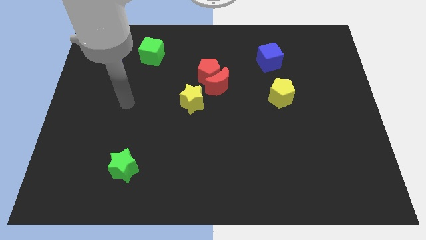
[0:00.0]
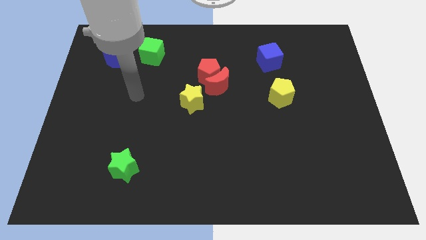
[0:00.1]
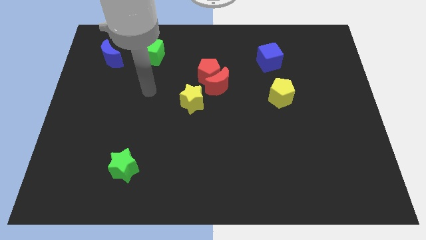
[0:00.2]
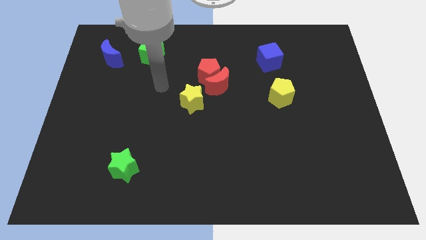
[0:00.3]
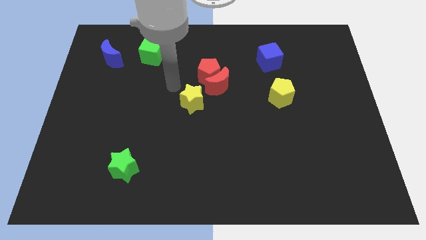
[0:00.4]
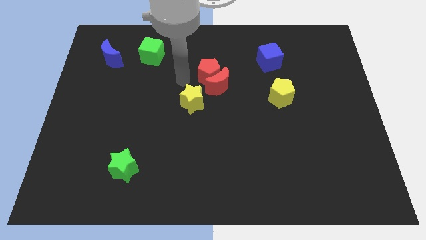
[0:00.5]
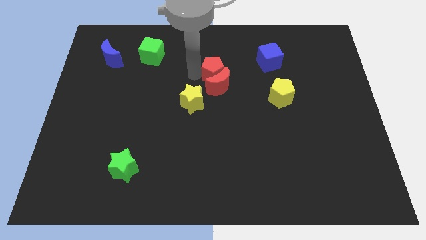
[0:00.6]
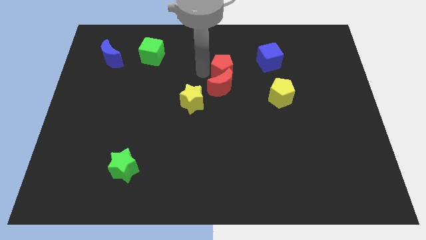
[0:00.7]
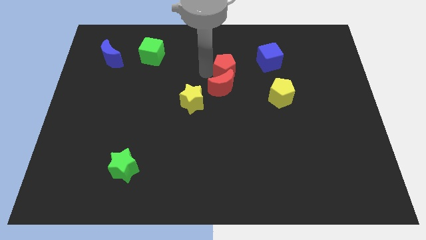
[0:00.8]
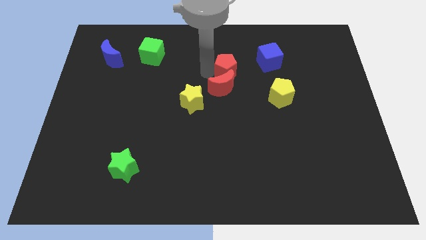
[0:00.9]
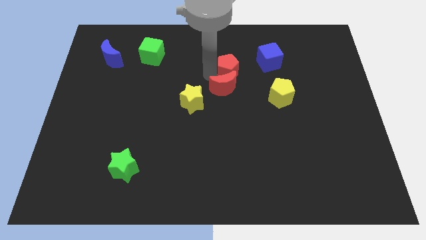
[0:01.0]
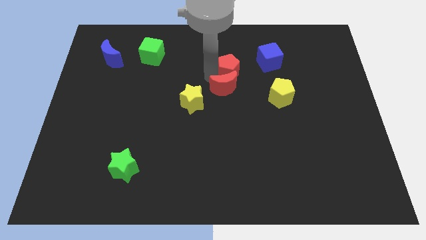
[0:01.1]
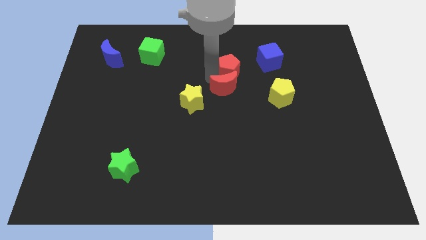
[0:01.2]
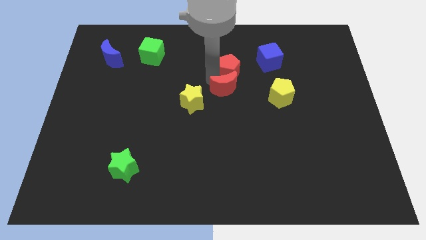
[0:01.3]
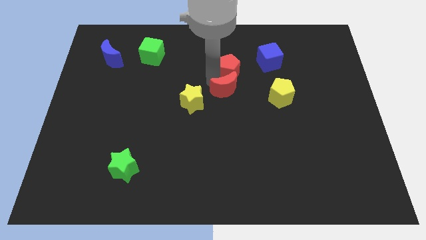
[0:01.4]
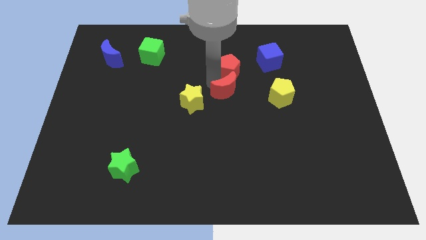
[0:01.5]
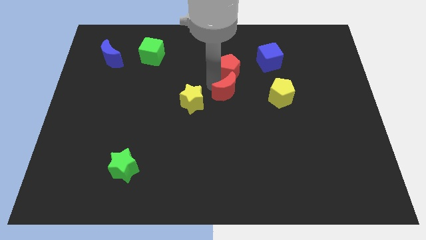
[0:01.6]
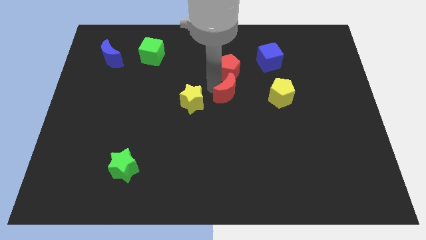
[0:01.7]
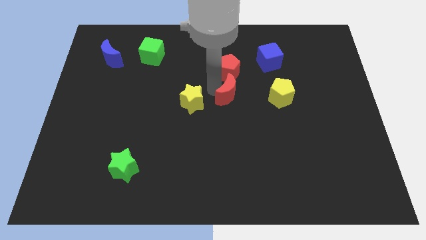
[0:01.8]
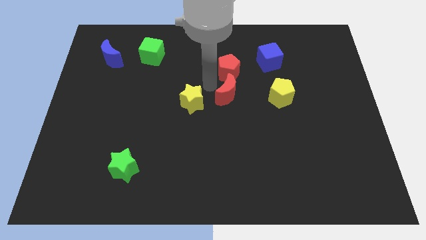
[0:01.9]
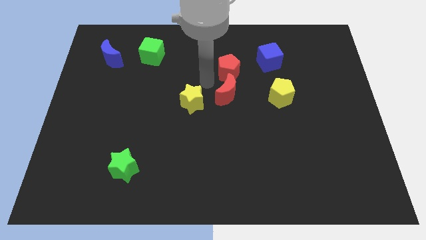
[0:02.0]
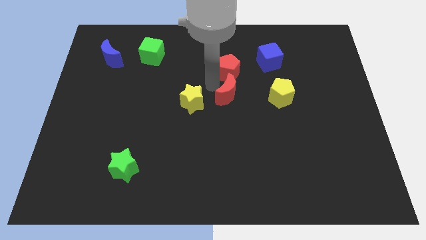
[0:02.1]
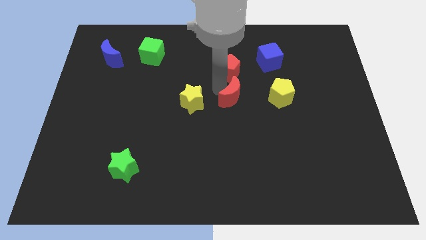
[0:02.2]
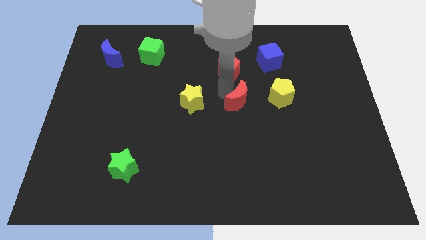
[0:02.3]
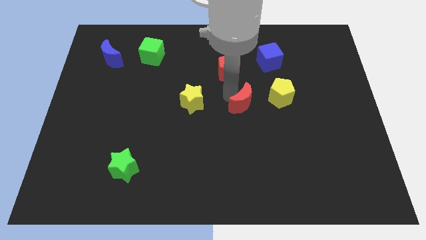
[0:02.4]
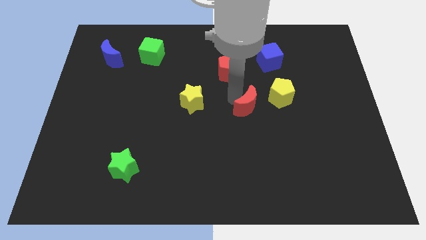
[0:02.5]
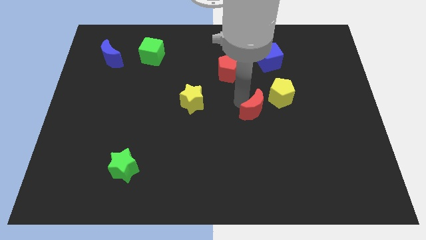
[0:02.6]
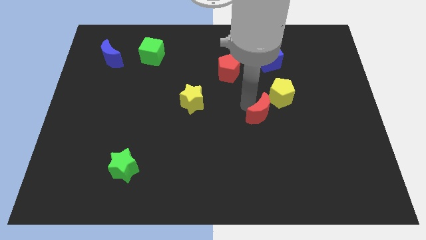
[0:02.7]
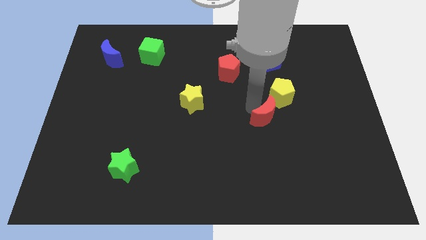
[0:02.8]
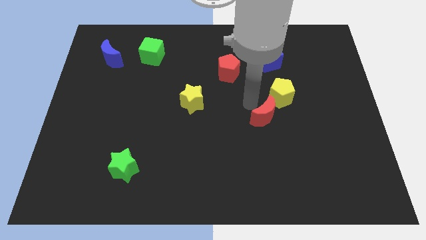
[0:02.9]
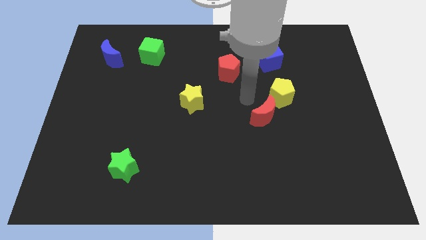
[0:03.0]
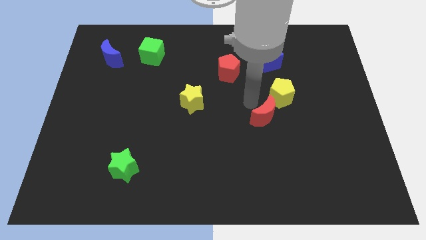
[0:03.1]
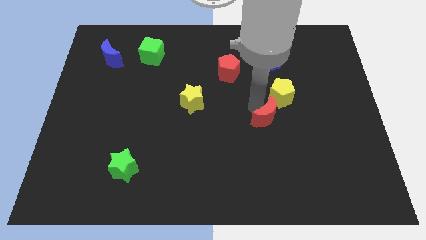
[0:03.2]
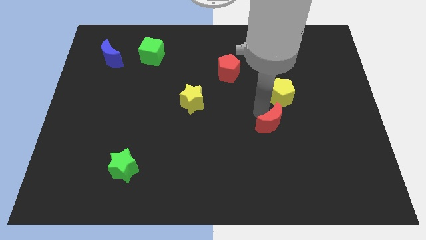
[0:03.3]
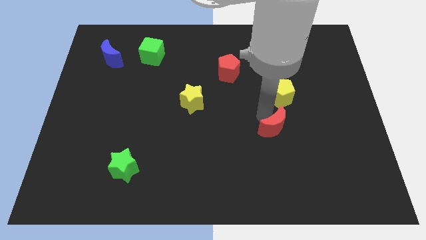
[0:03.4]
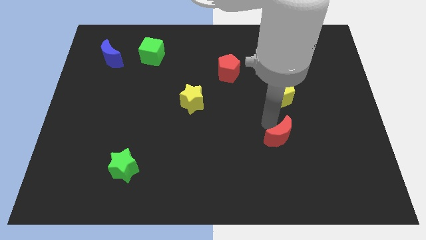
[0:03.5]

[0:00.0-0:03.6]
slide the red moon down and to the right diagonally

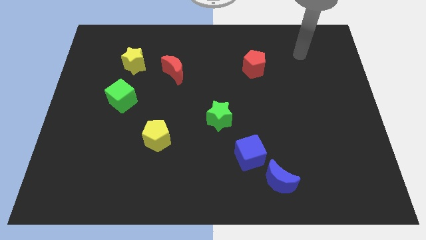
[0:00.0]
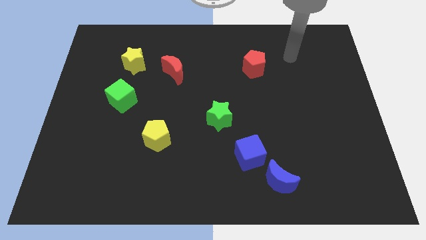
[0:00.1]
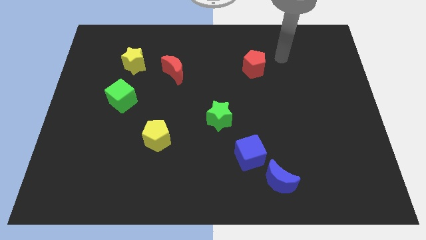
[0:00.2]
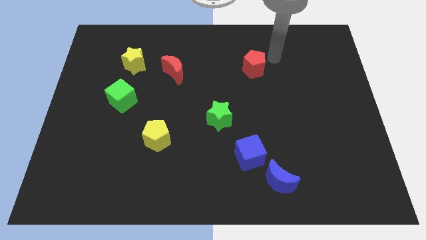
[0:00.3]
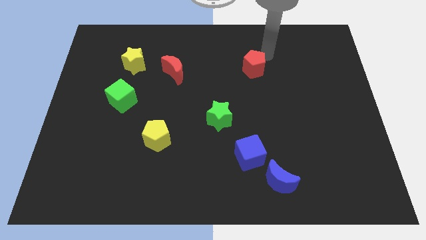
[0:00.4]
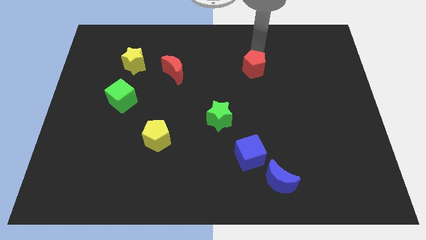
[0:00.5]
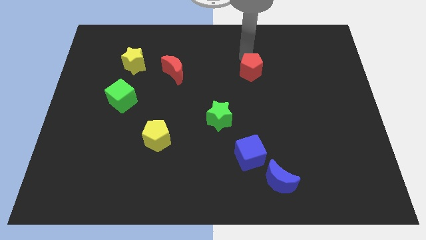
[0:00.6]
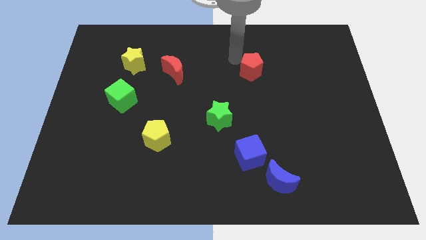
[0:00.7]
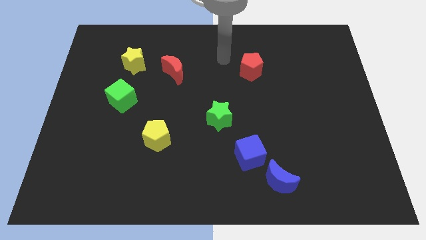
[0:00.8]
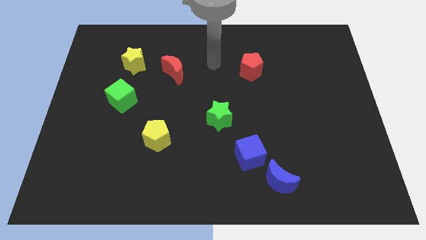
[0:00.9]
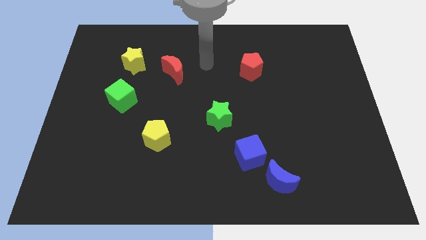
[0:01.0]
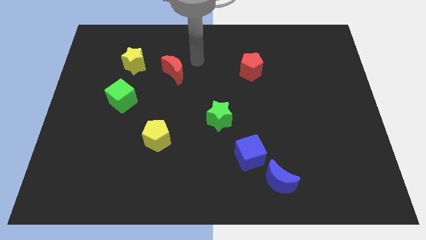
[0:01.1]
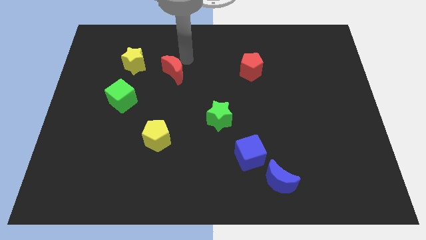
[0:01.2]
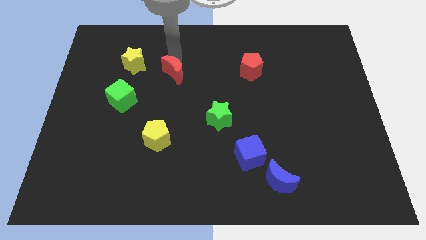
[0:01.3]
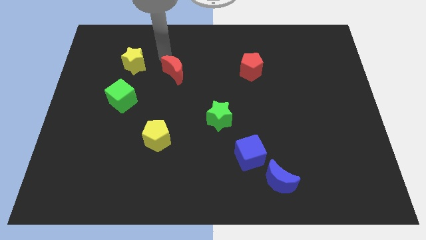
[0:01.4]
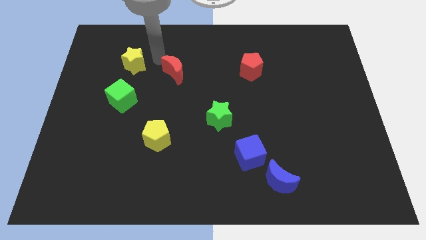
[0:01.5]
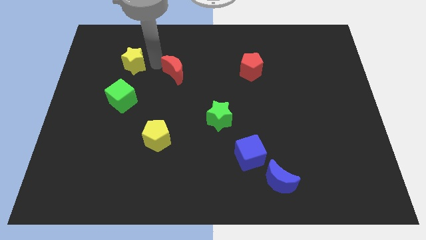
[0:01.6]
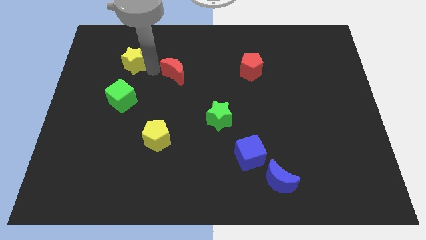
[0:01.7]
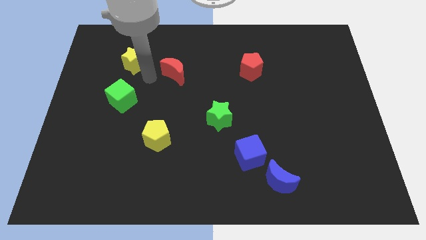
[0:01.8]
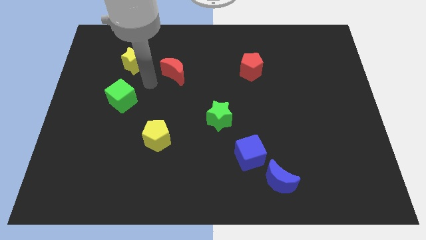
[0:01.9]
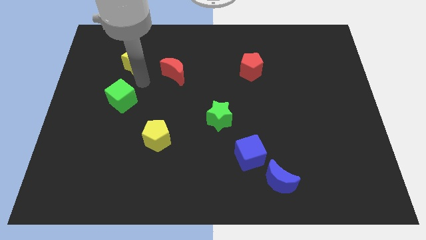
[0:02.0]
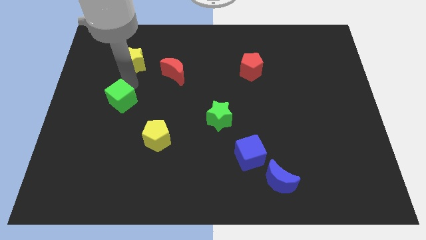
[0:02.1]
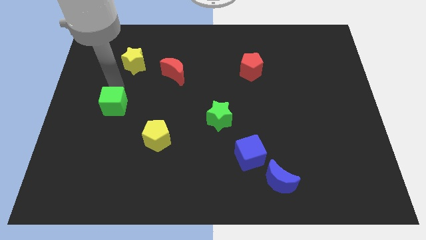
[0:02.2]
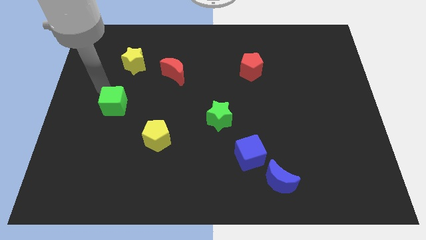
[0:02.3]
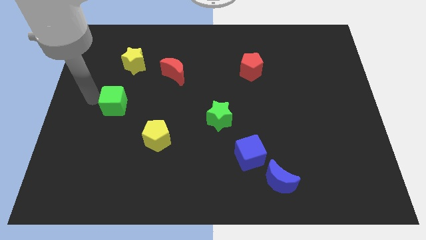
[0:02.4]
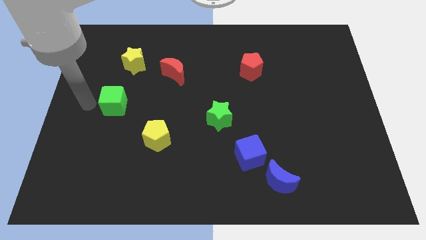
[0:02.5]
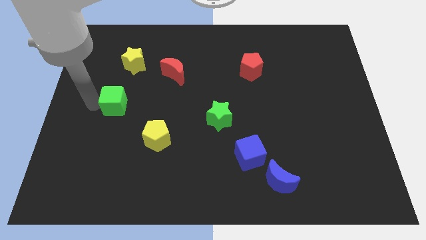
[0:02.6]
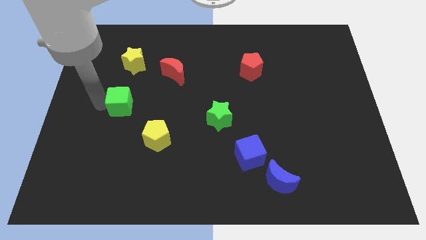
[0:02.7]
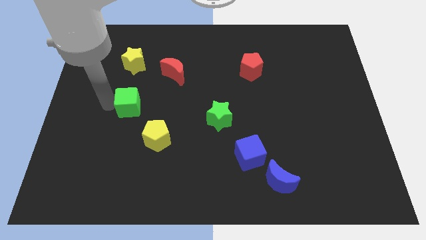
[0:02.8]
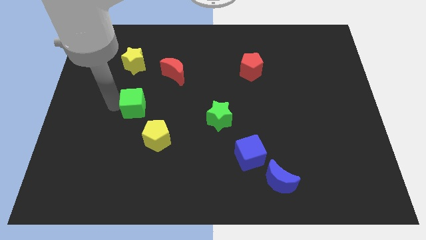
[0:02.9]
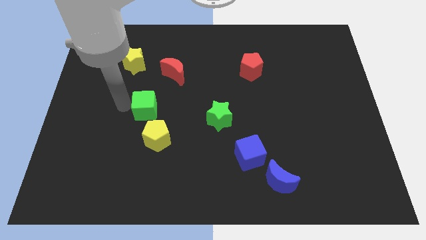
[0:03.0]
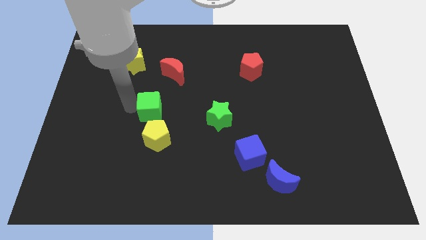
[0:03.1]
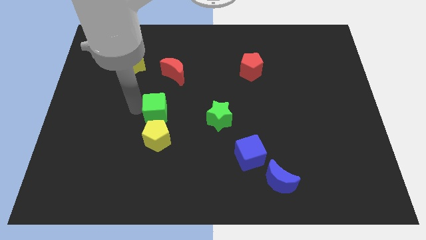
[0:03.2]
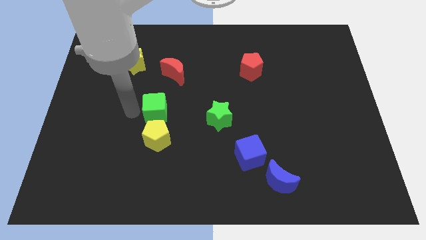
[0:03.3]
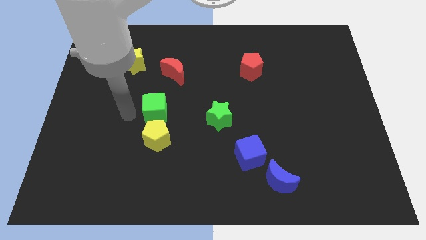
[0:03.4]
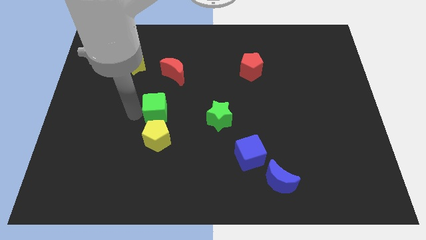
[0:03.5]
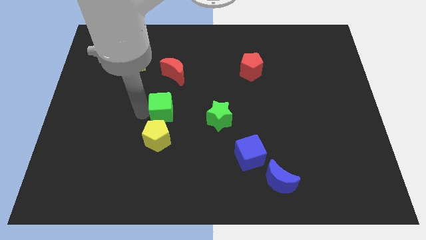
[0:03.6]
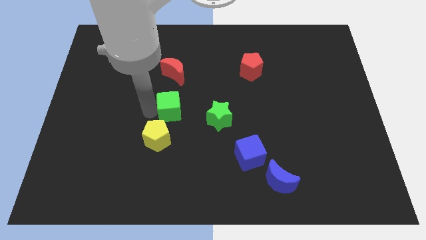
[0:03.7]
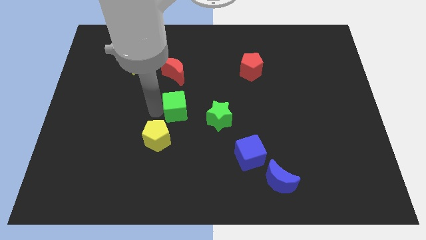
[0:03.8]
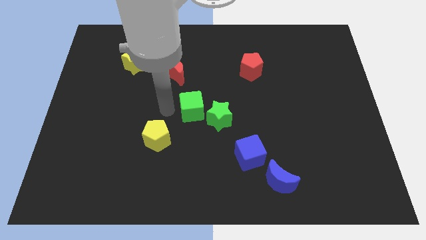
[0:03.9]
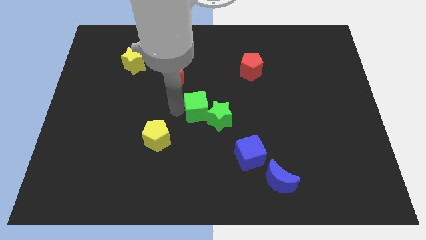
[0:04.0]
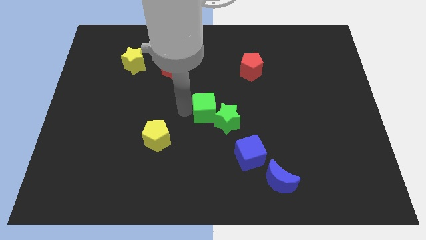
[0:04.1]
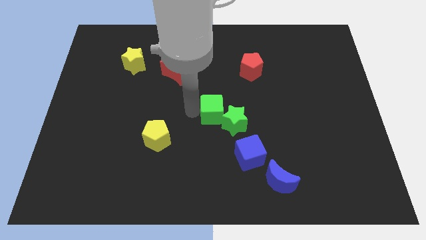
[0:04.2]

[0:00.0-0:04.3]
slide the green cube right
